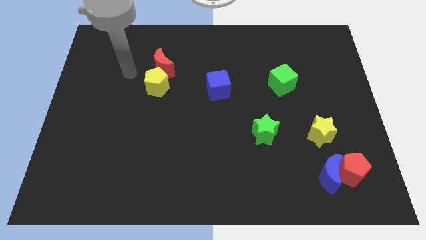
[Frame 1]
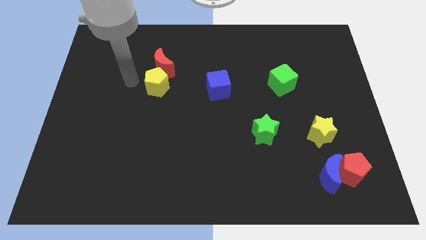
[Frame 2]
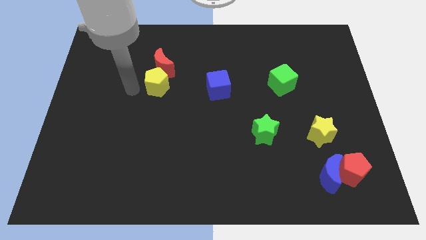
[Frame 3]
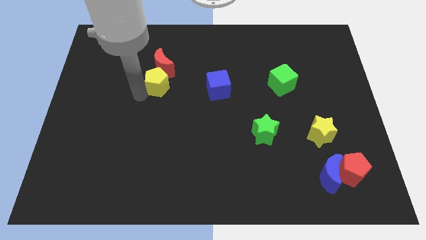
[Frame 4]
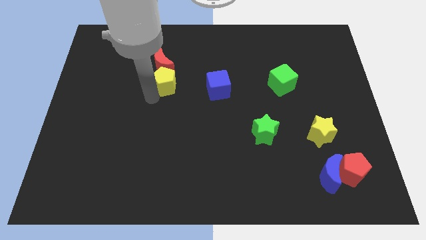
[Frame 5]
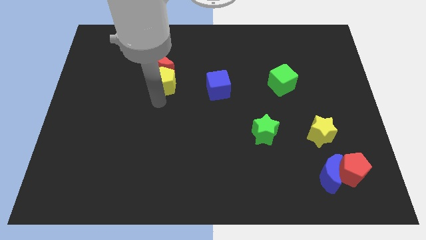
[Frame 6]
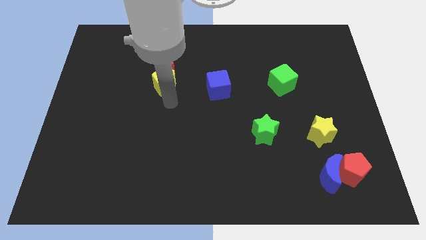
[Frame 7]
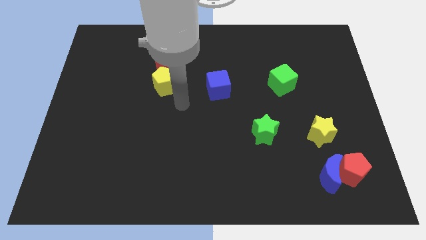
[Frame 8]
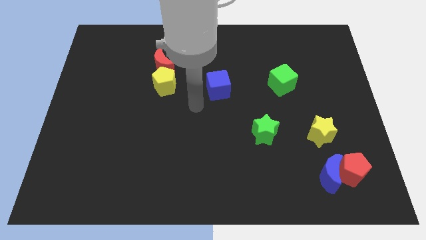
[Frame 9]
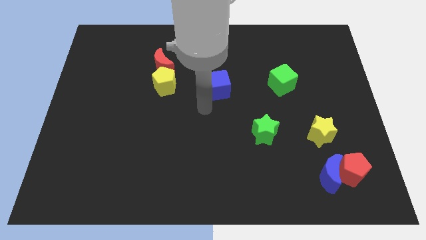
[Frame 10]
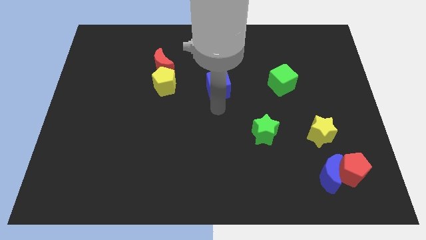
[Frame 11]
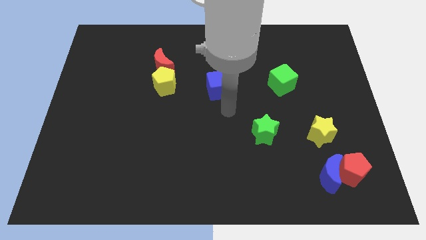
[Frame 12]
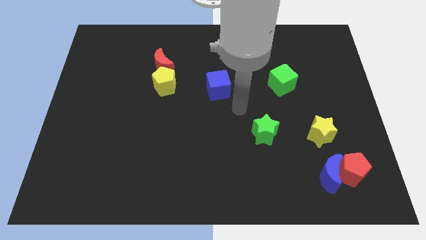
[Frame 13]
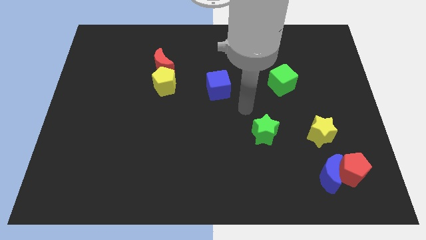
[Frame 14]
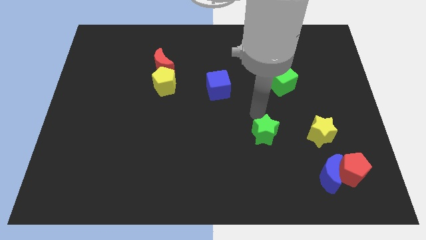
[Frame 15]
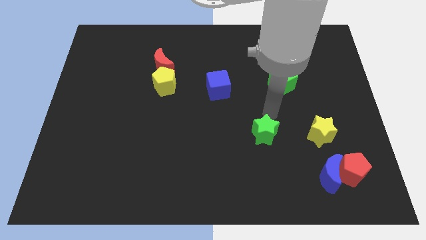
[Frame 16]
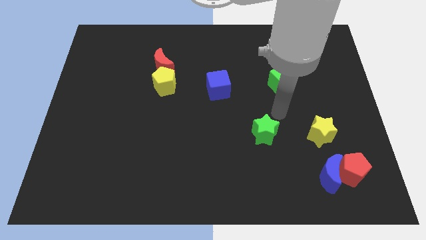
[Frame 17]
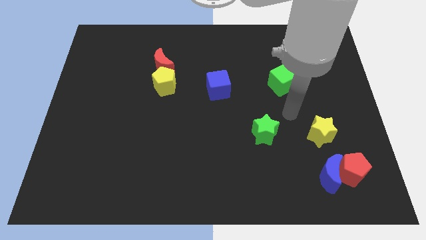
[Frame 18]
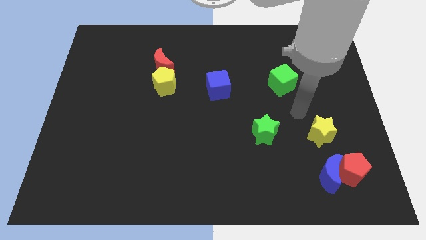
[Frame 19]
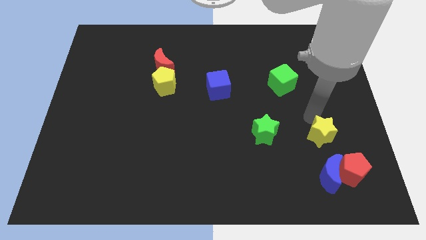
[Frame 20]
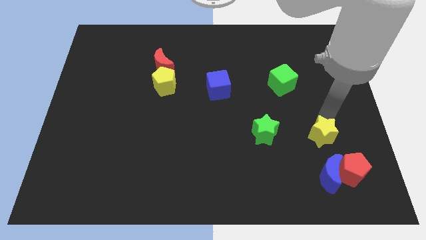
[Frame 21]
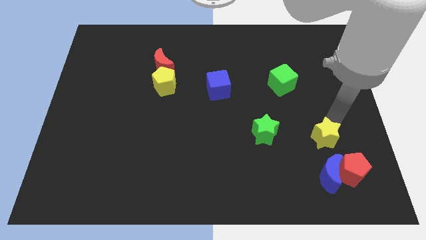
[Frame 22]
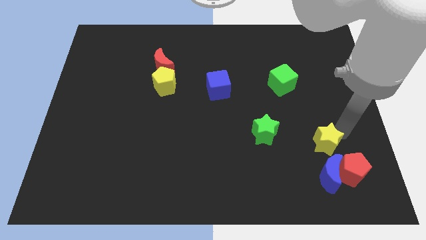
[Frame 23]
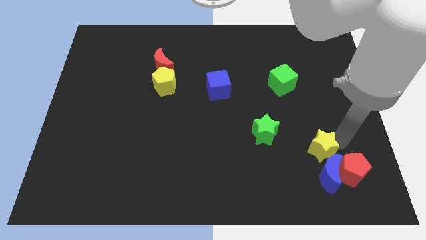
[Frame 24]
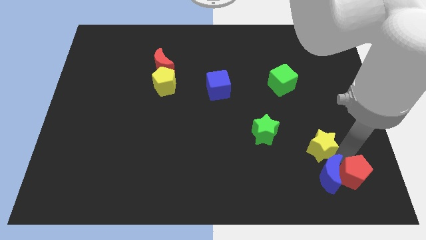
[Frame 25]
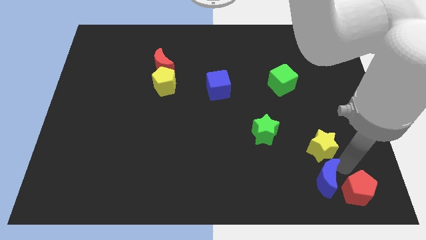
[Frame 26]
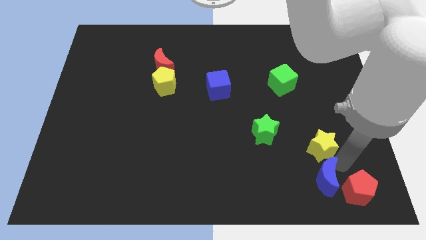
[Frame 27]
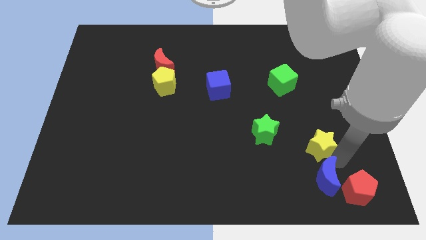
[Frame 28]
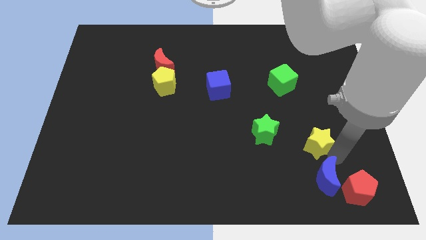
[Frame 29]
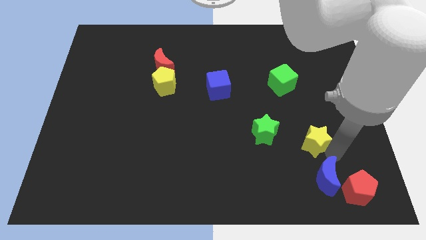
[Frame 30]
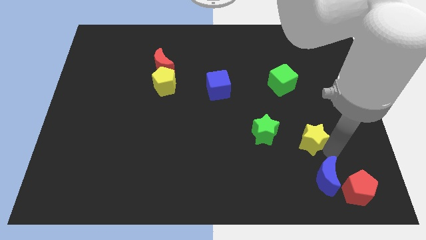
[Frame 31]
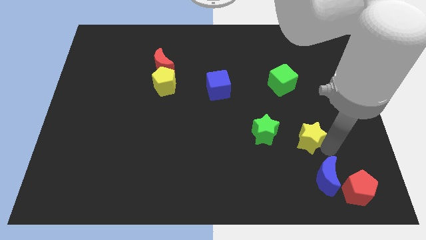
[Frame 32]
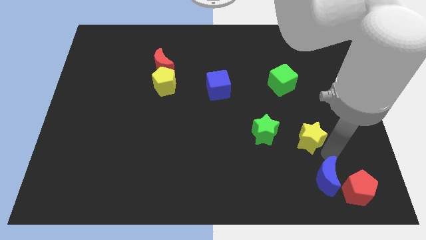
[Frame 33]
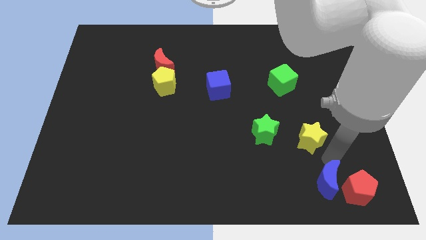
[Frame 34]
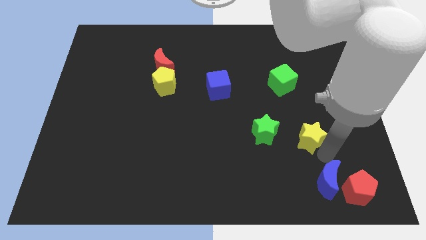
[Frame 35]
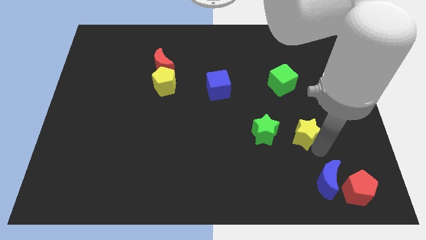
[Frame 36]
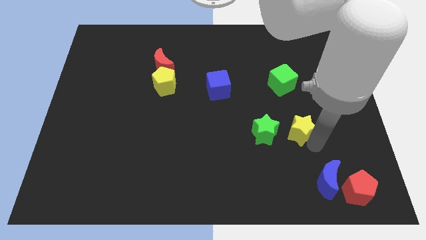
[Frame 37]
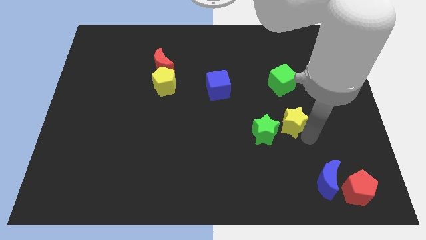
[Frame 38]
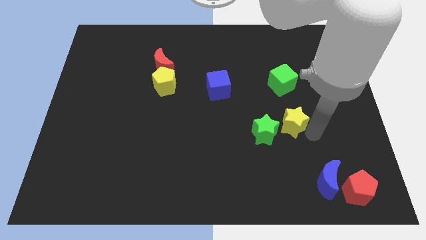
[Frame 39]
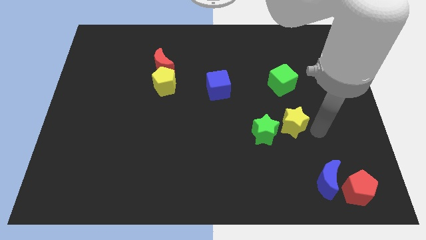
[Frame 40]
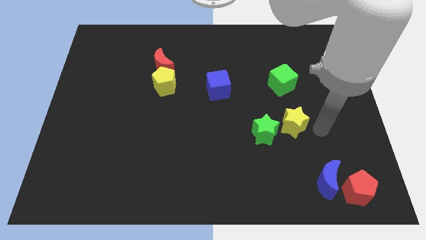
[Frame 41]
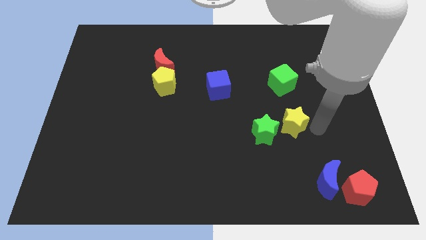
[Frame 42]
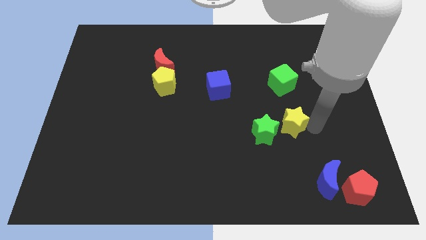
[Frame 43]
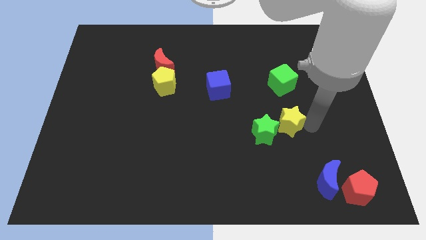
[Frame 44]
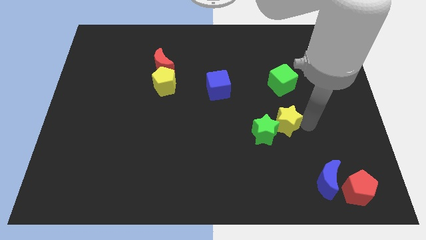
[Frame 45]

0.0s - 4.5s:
move the yellow star a bit left

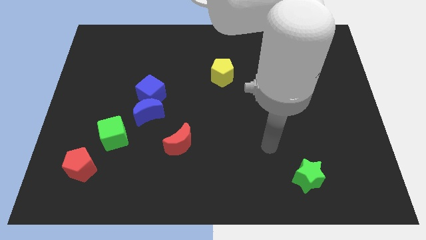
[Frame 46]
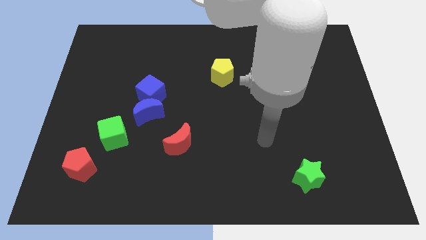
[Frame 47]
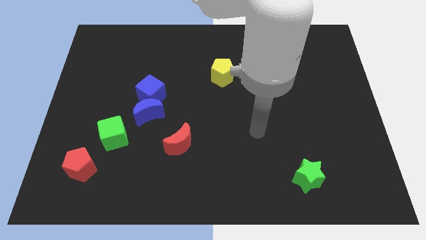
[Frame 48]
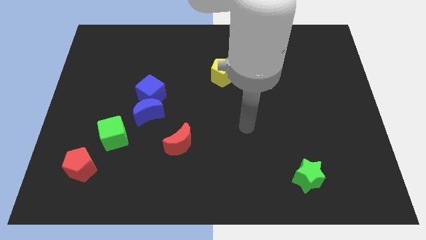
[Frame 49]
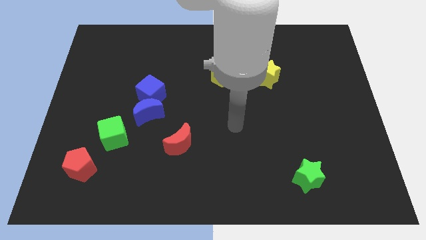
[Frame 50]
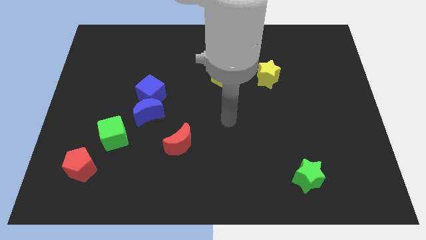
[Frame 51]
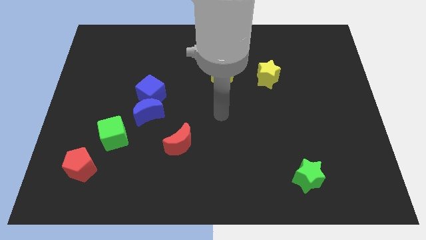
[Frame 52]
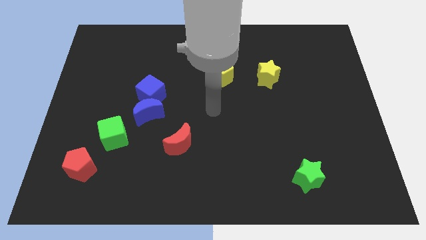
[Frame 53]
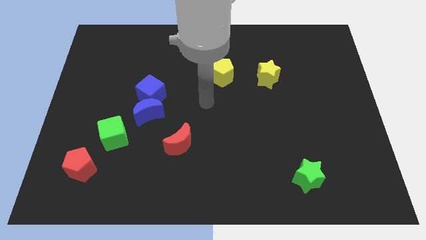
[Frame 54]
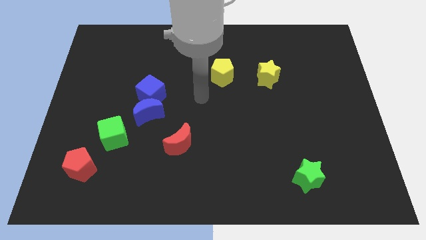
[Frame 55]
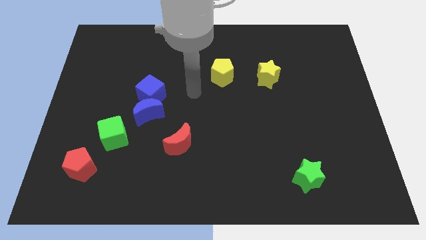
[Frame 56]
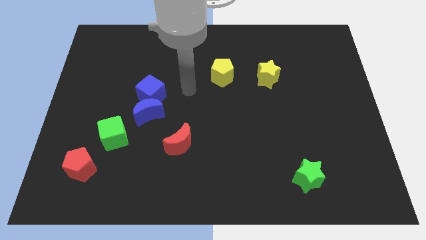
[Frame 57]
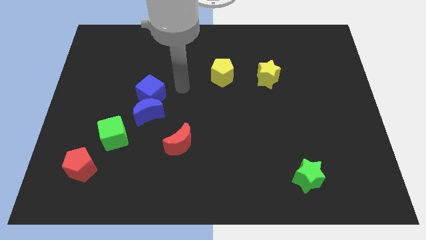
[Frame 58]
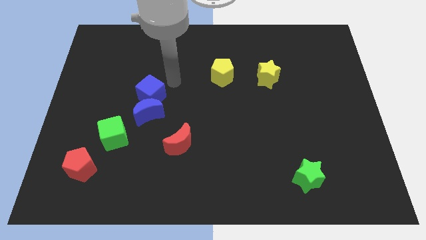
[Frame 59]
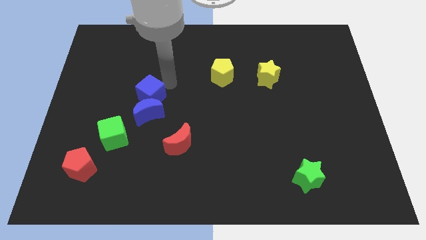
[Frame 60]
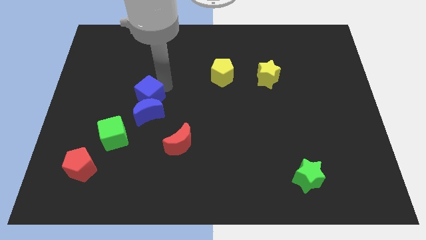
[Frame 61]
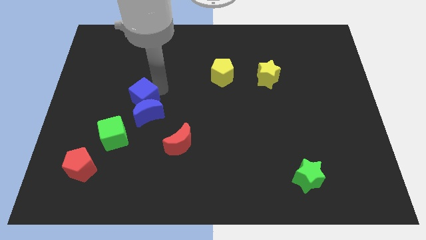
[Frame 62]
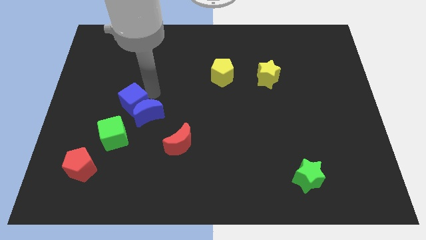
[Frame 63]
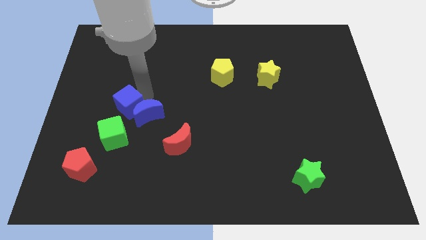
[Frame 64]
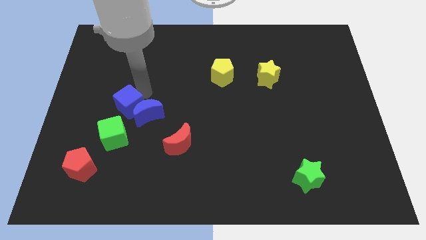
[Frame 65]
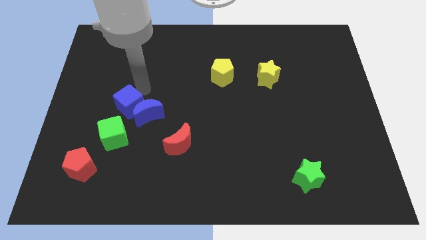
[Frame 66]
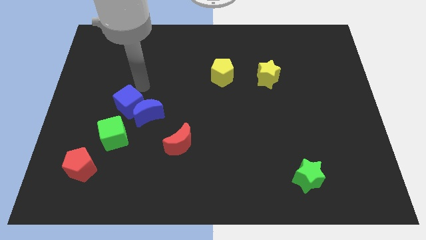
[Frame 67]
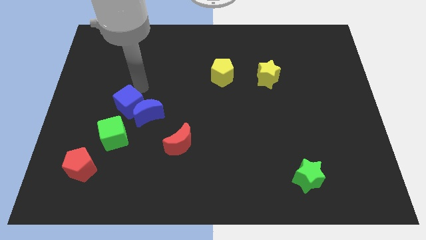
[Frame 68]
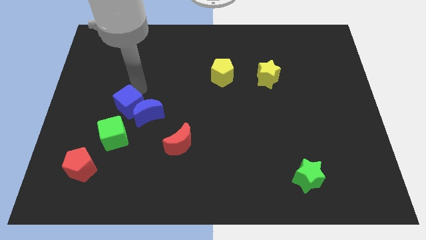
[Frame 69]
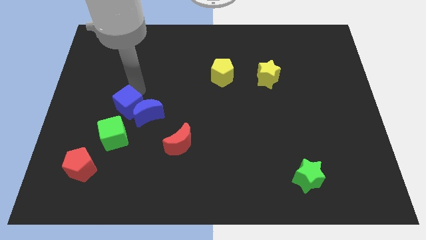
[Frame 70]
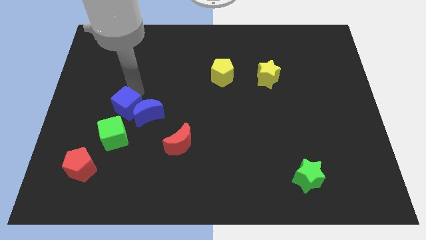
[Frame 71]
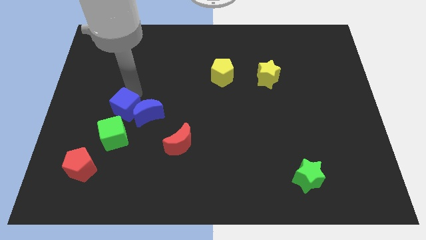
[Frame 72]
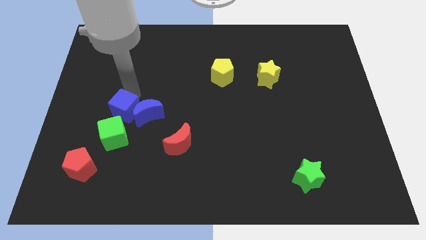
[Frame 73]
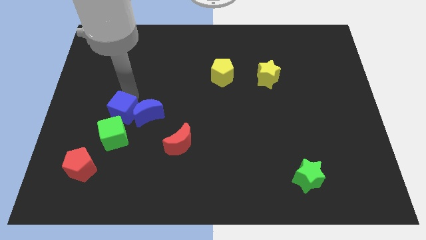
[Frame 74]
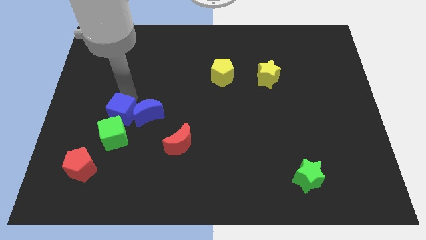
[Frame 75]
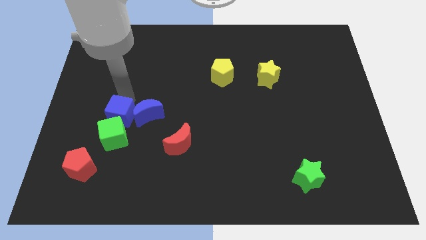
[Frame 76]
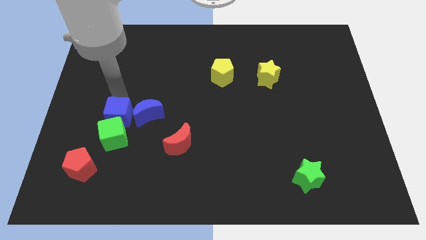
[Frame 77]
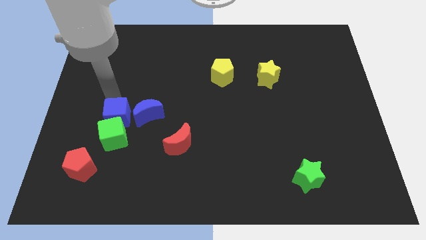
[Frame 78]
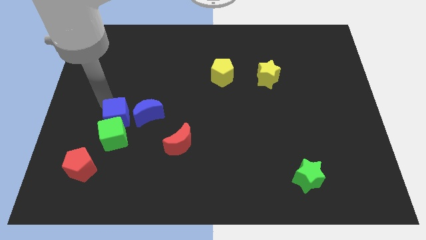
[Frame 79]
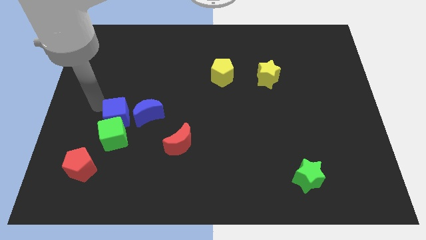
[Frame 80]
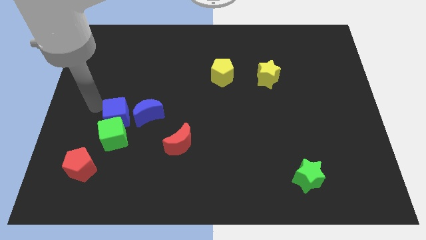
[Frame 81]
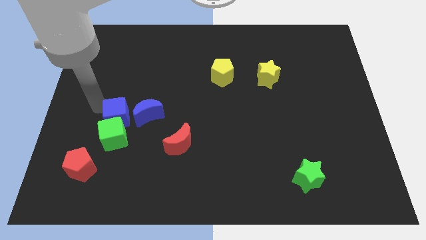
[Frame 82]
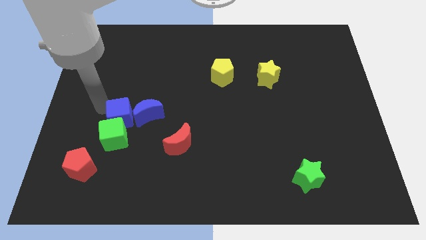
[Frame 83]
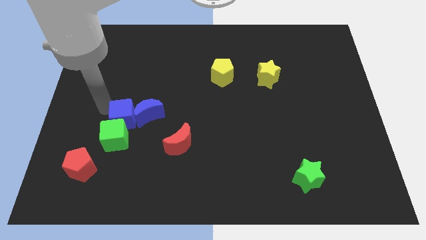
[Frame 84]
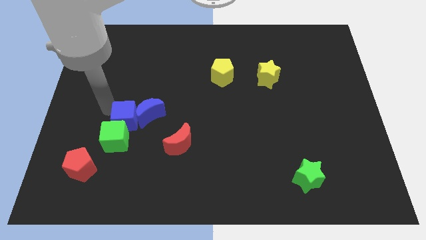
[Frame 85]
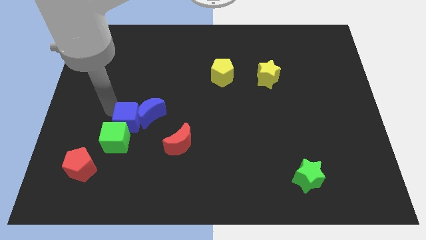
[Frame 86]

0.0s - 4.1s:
slightly slide the blue cube downwards
